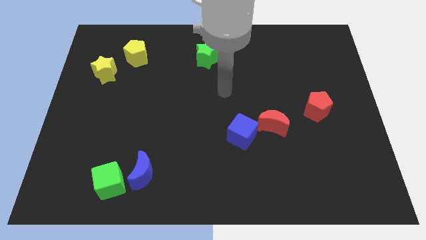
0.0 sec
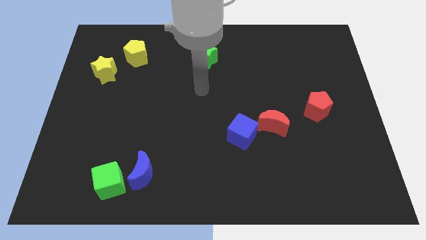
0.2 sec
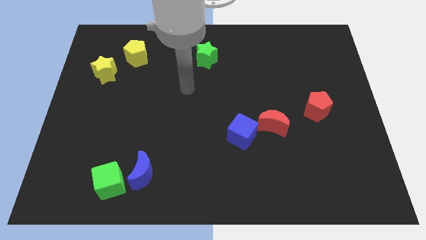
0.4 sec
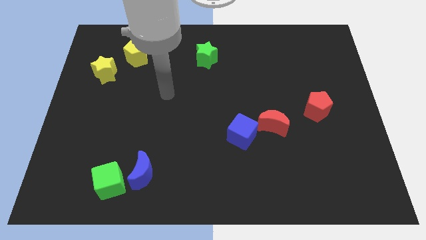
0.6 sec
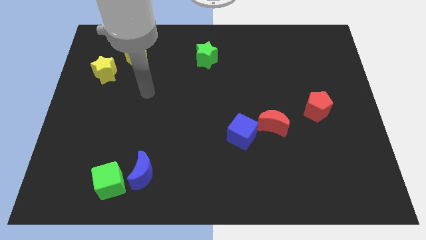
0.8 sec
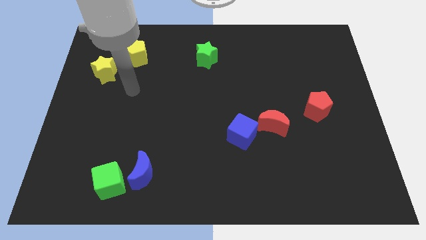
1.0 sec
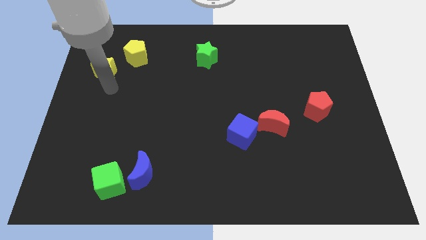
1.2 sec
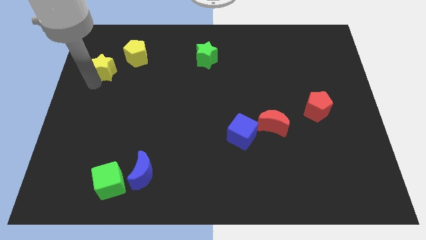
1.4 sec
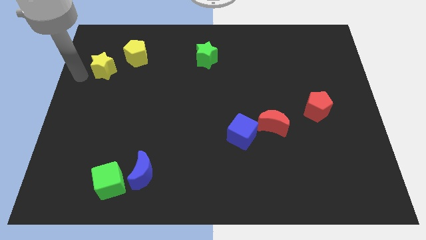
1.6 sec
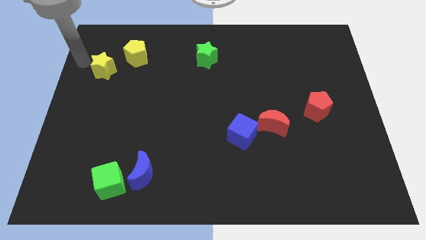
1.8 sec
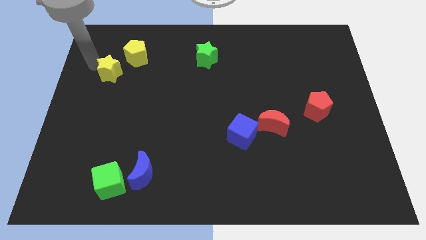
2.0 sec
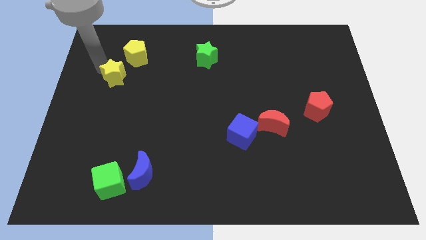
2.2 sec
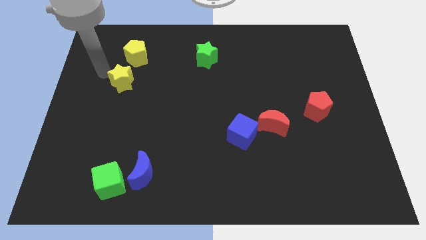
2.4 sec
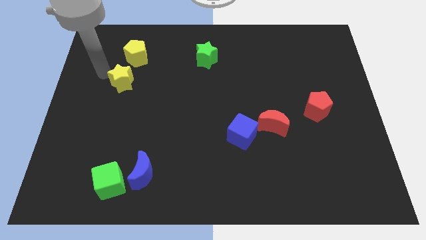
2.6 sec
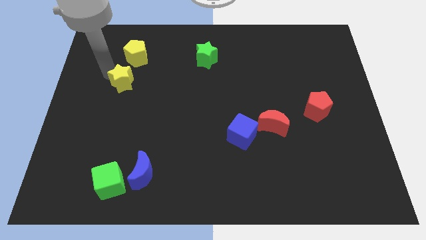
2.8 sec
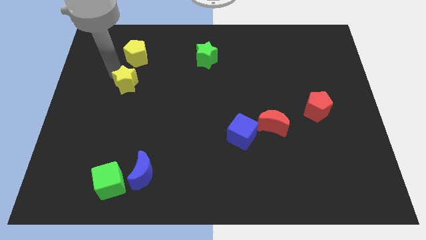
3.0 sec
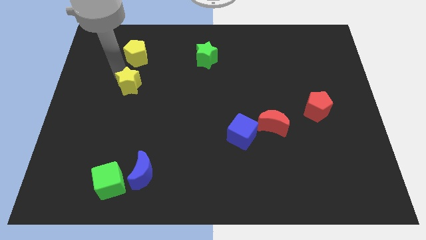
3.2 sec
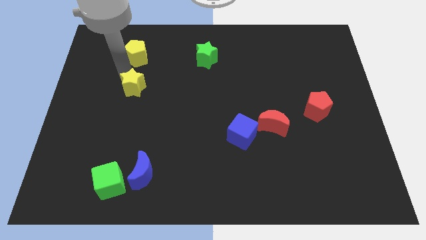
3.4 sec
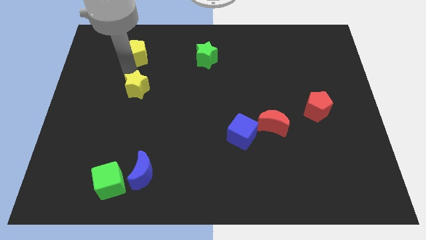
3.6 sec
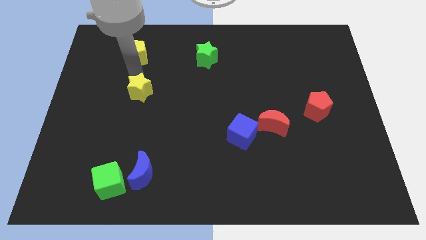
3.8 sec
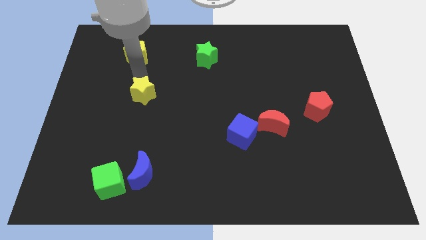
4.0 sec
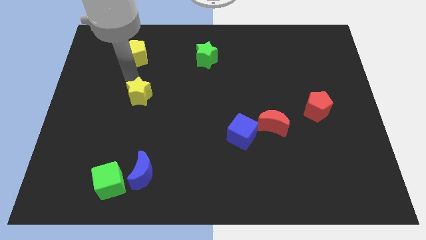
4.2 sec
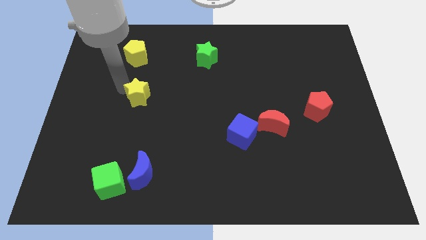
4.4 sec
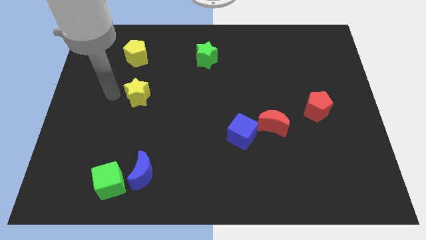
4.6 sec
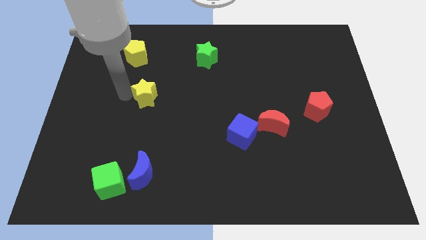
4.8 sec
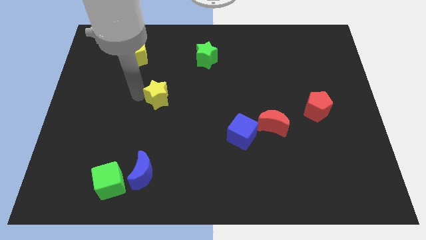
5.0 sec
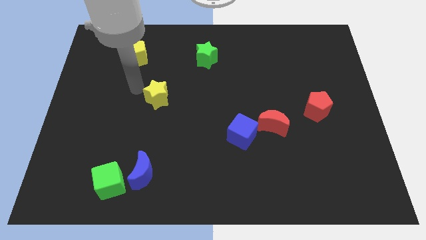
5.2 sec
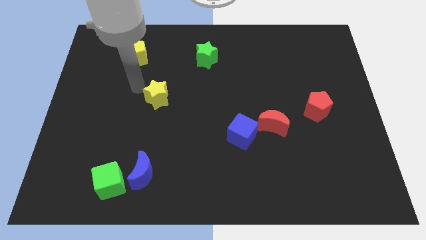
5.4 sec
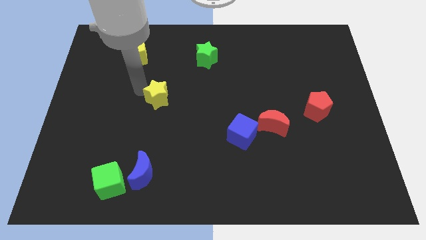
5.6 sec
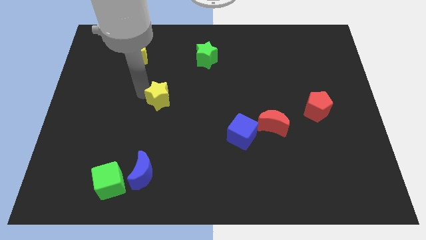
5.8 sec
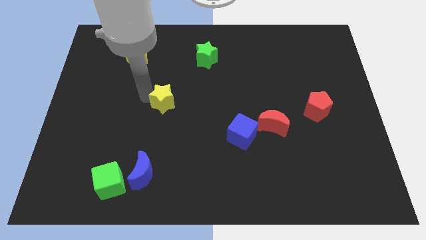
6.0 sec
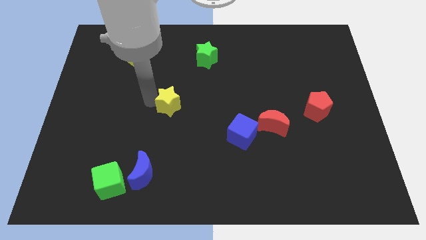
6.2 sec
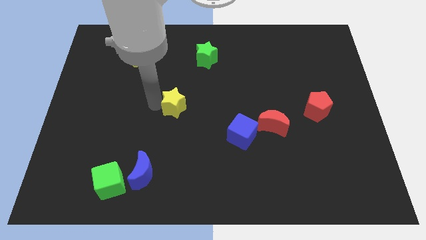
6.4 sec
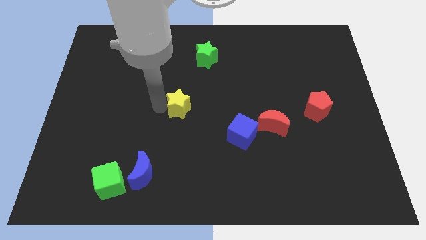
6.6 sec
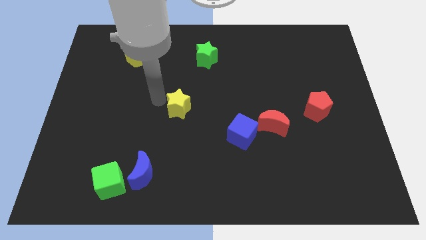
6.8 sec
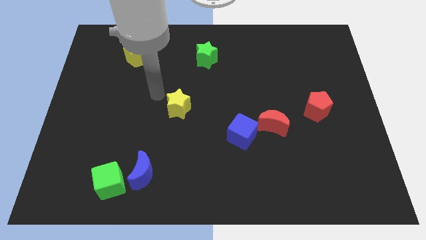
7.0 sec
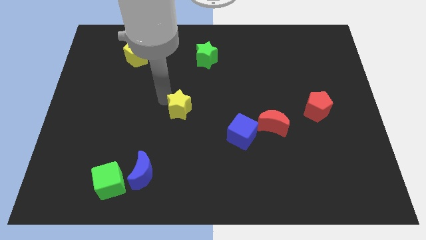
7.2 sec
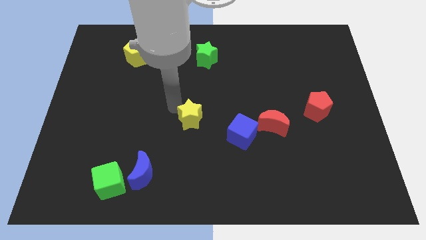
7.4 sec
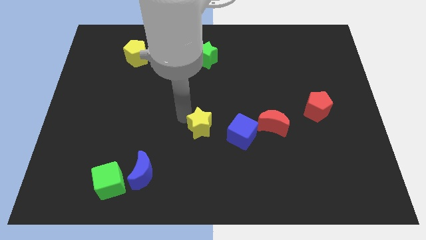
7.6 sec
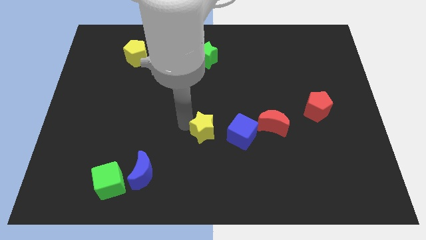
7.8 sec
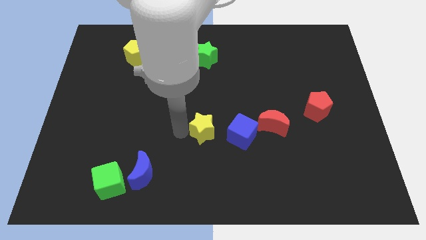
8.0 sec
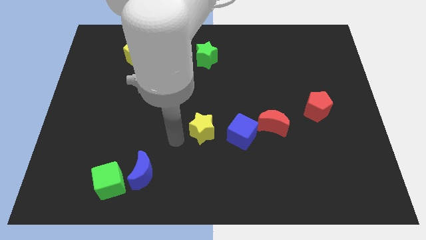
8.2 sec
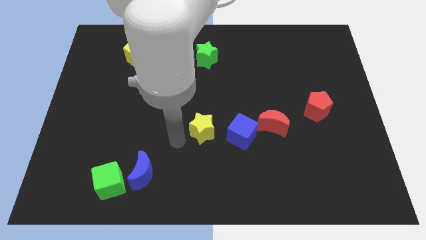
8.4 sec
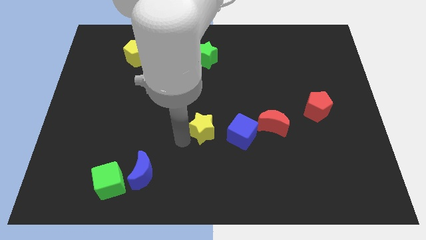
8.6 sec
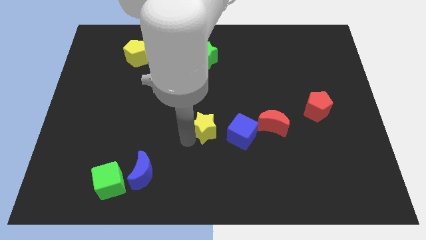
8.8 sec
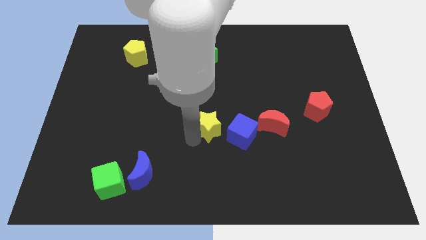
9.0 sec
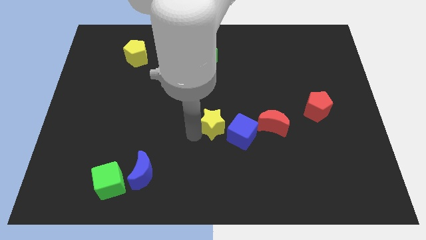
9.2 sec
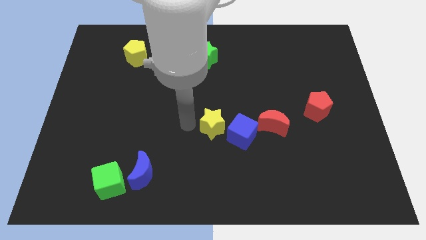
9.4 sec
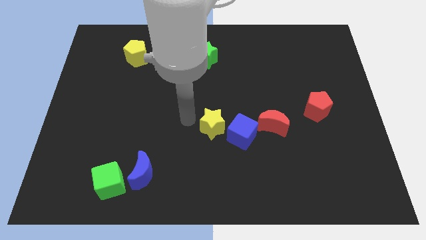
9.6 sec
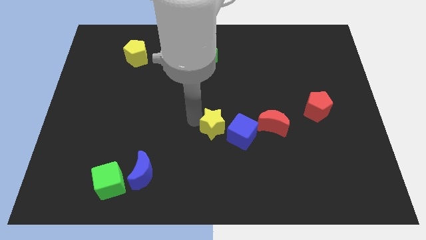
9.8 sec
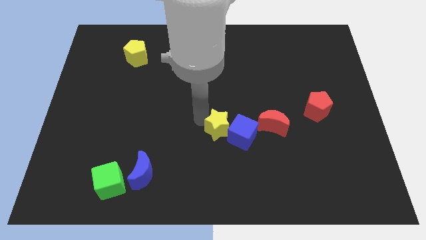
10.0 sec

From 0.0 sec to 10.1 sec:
move the yellow star close to the blue cube

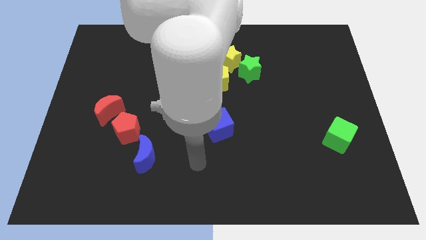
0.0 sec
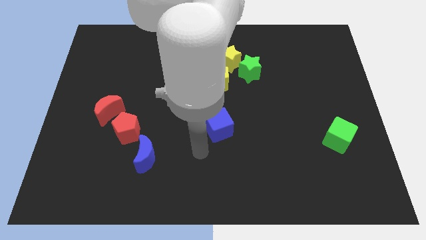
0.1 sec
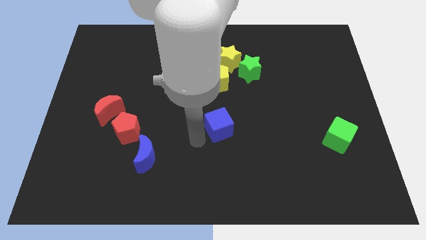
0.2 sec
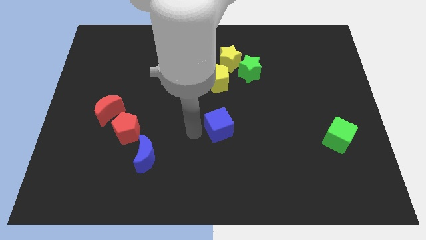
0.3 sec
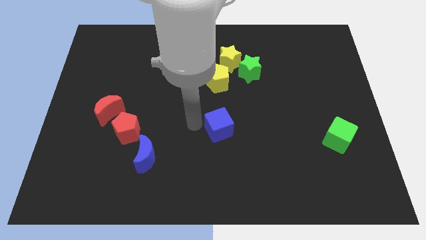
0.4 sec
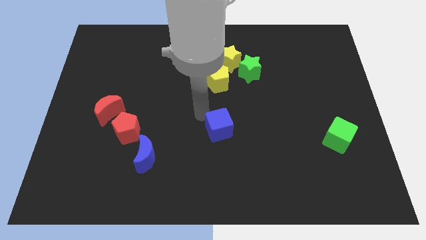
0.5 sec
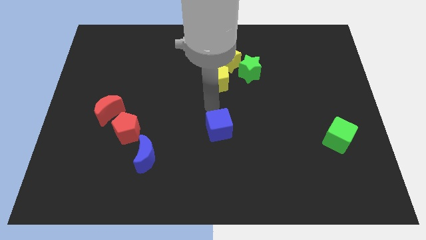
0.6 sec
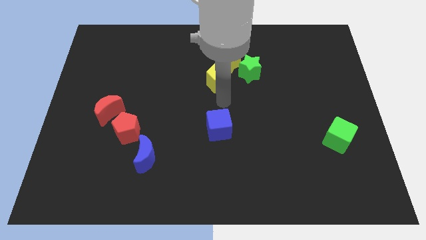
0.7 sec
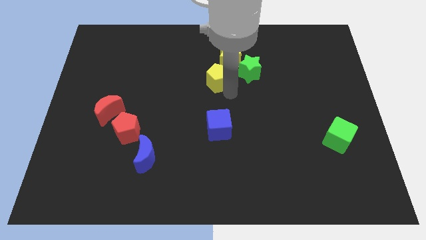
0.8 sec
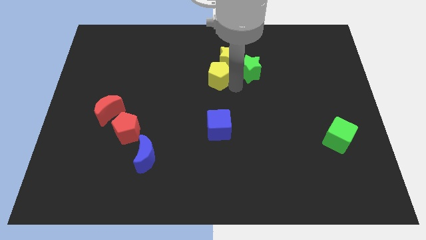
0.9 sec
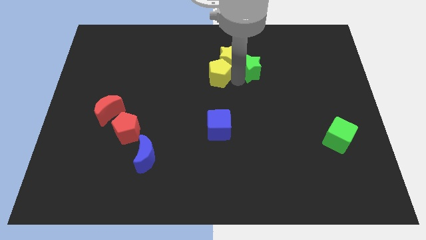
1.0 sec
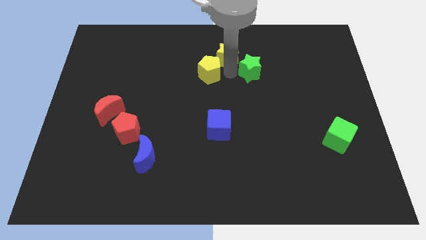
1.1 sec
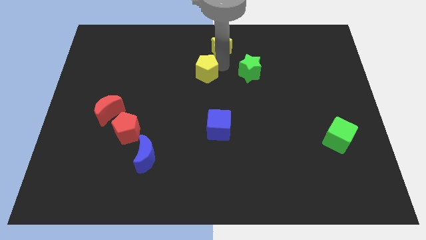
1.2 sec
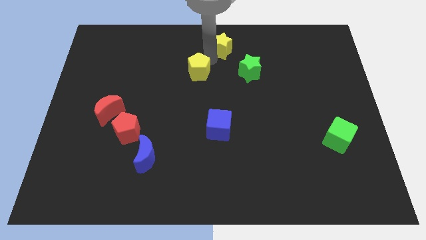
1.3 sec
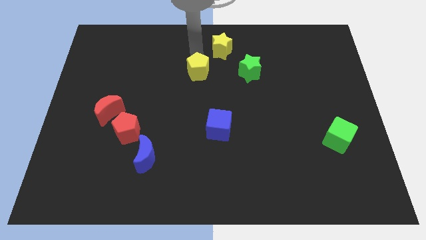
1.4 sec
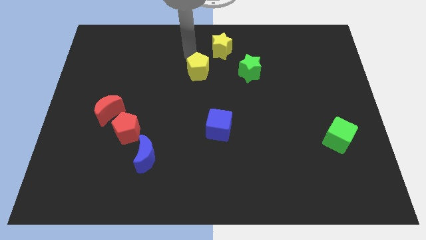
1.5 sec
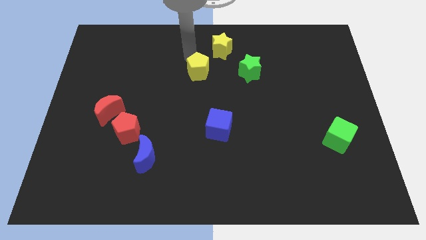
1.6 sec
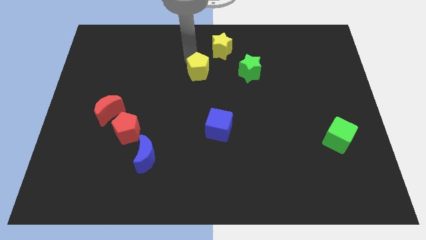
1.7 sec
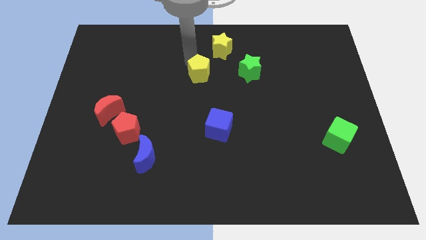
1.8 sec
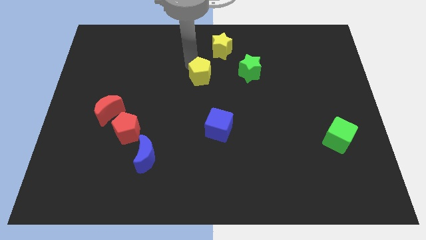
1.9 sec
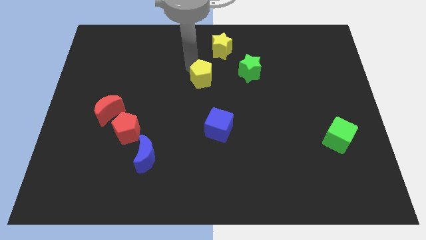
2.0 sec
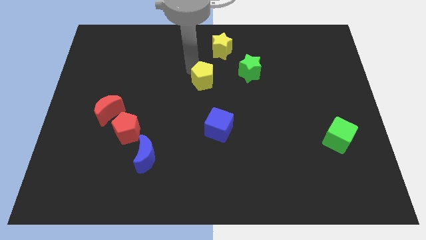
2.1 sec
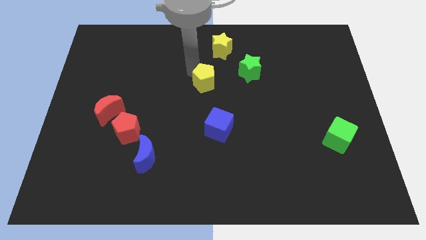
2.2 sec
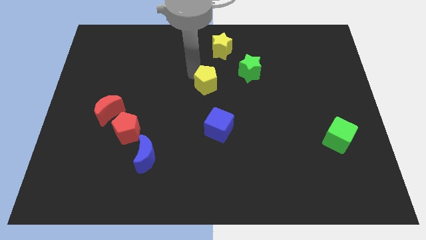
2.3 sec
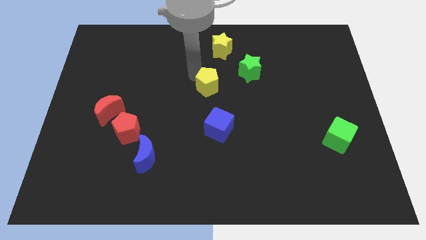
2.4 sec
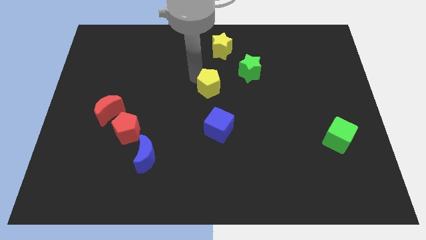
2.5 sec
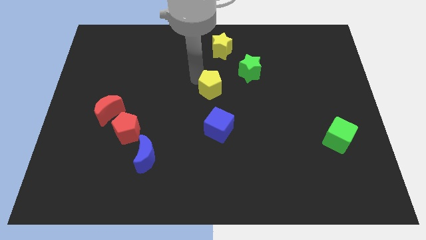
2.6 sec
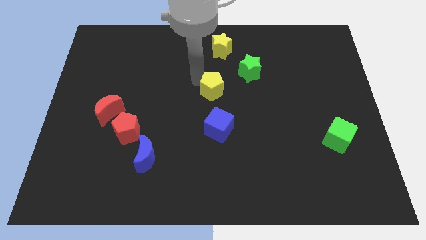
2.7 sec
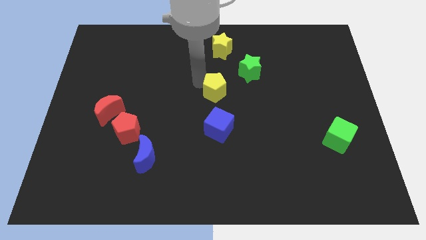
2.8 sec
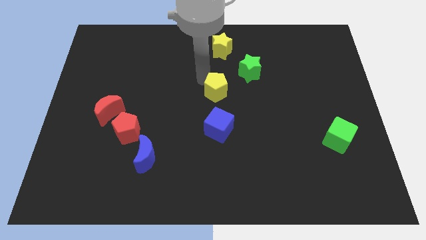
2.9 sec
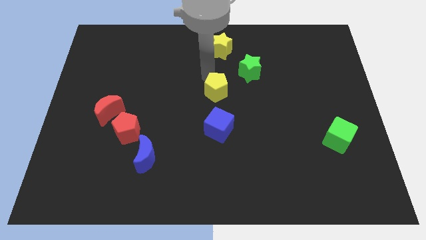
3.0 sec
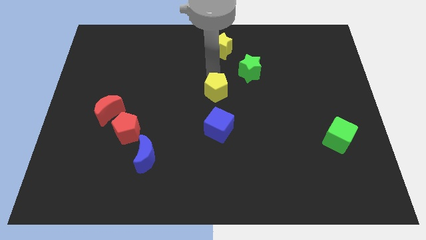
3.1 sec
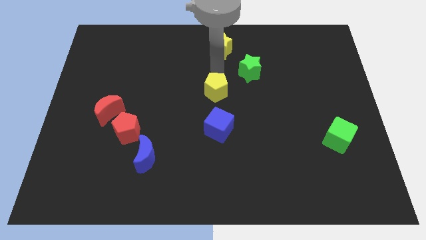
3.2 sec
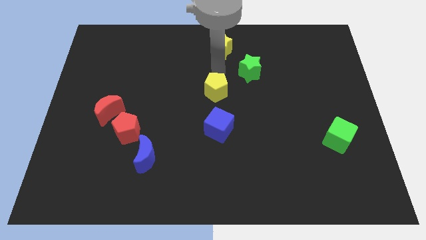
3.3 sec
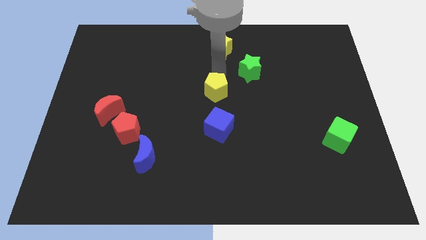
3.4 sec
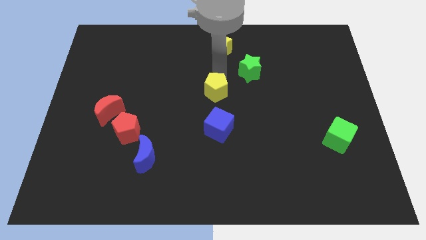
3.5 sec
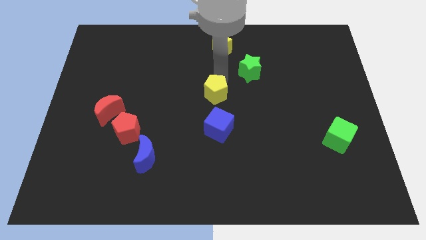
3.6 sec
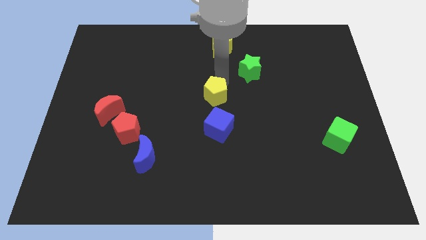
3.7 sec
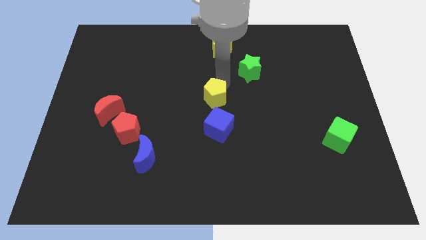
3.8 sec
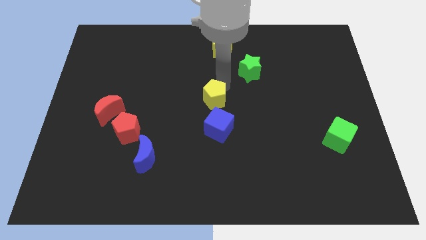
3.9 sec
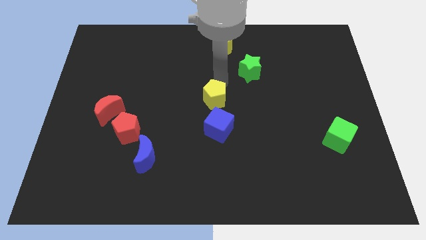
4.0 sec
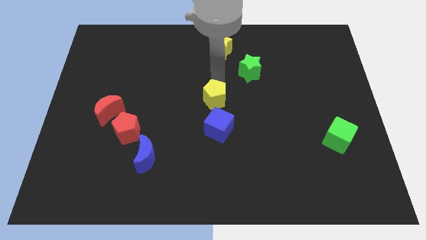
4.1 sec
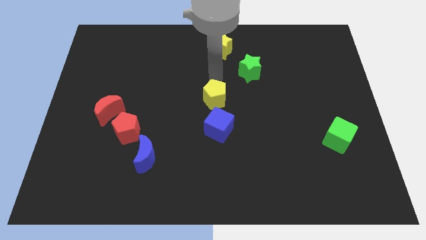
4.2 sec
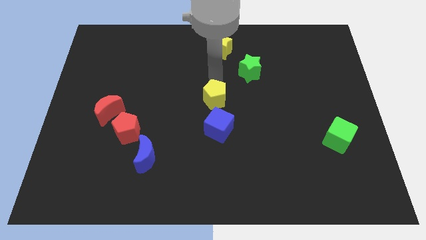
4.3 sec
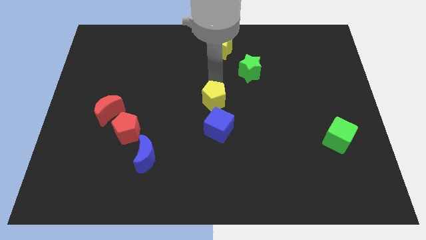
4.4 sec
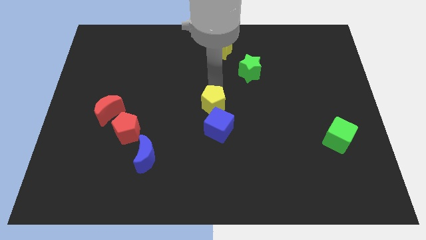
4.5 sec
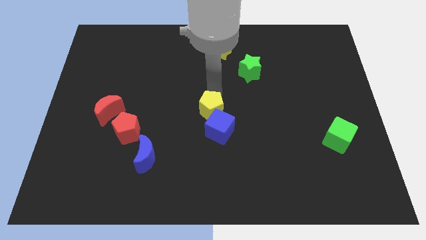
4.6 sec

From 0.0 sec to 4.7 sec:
put the yellow pentagon to the blue cube
